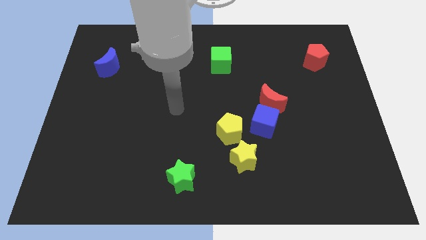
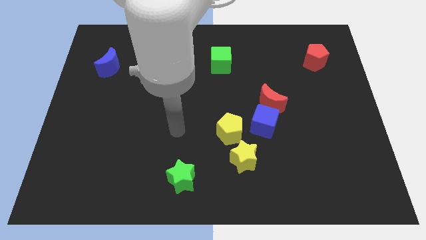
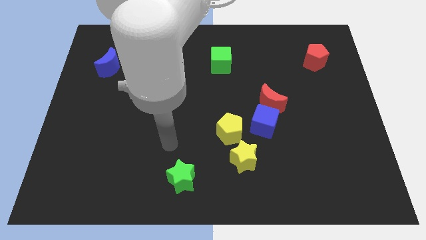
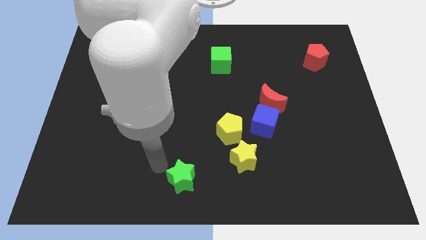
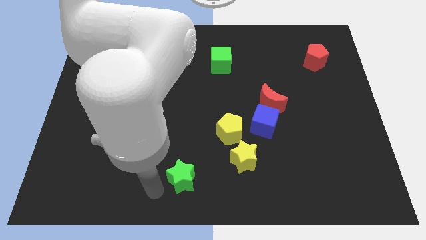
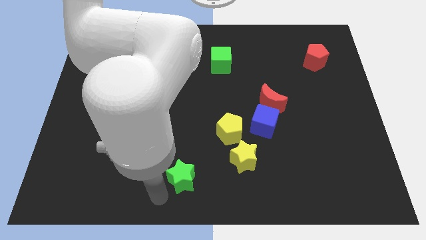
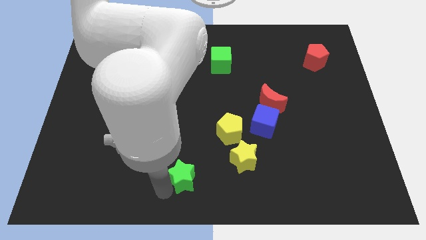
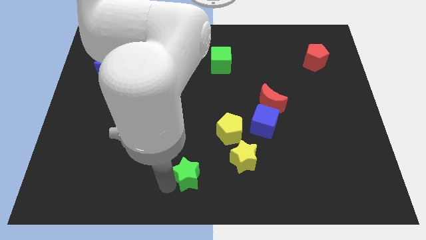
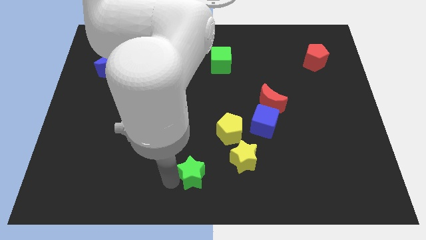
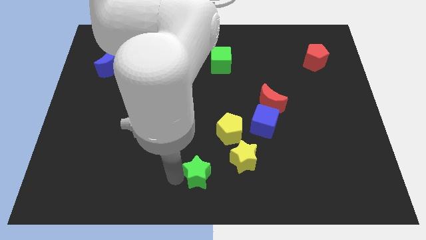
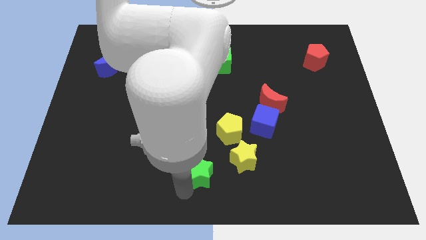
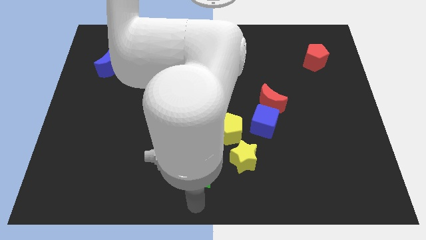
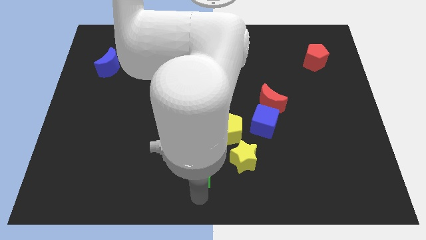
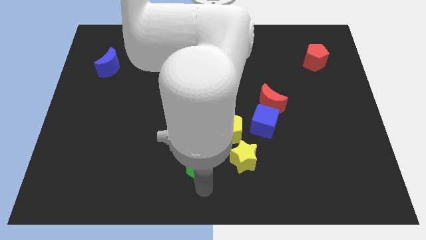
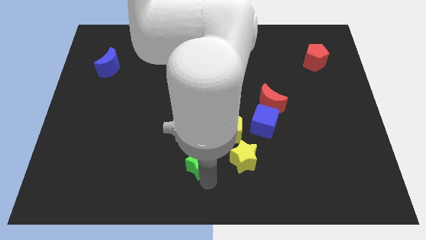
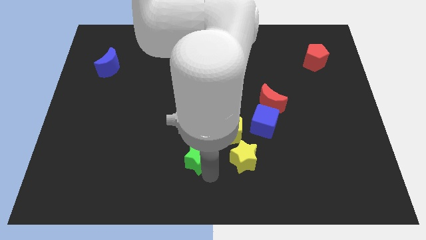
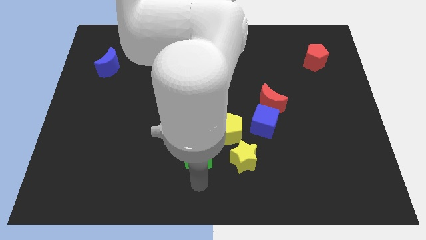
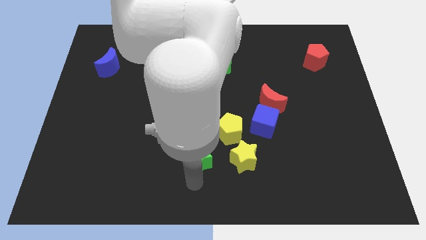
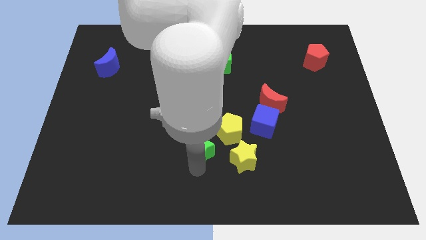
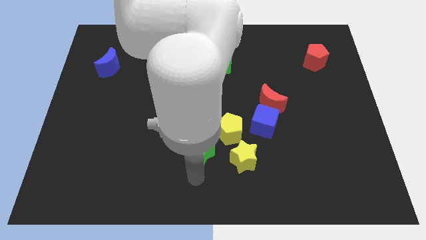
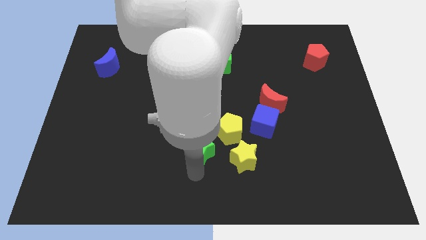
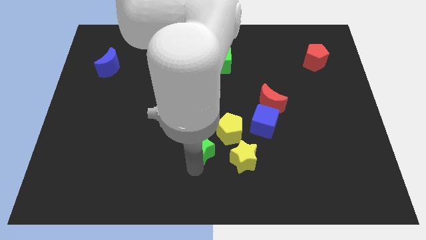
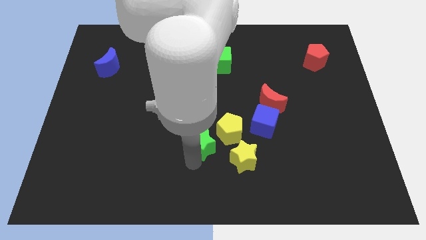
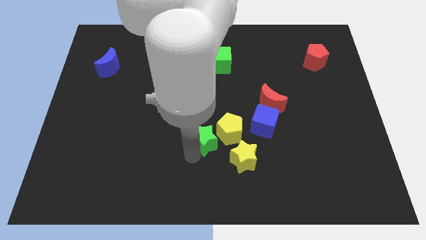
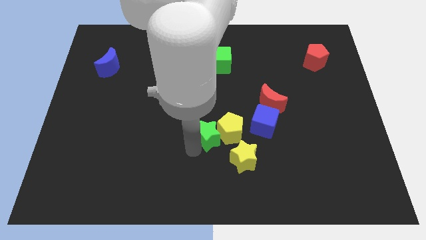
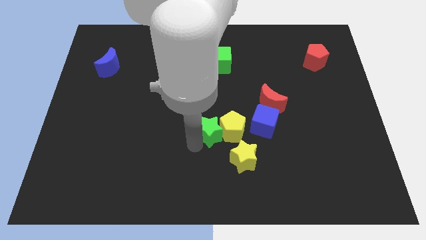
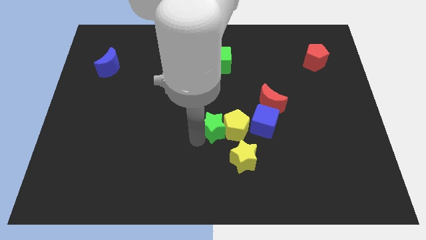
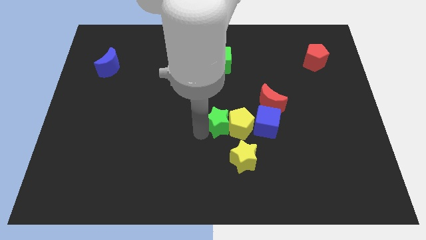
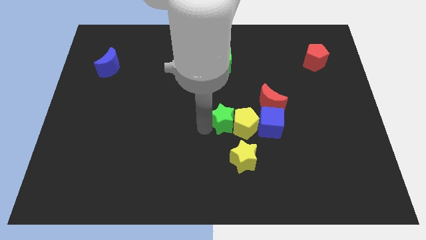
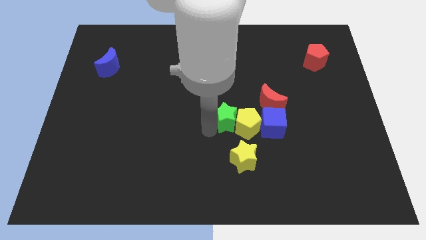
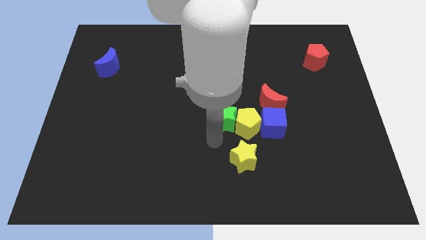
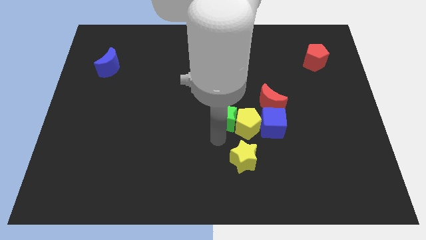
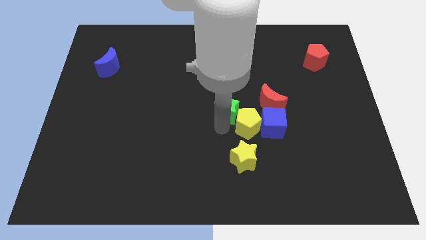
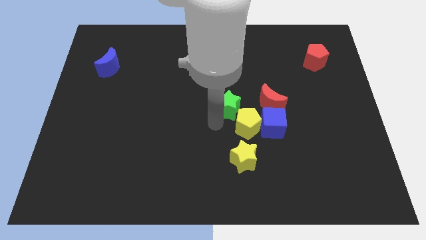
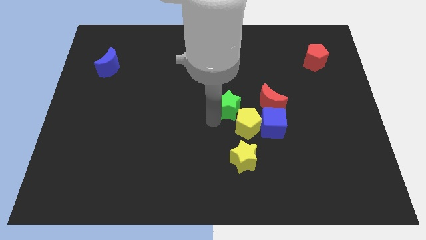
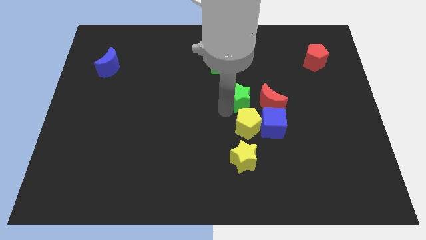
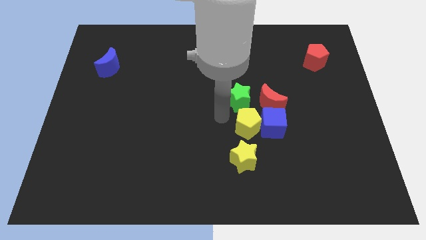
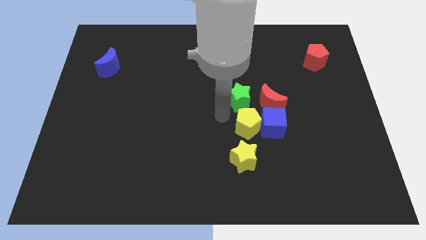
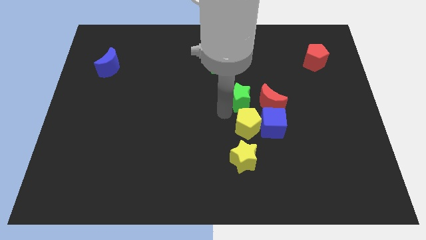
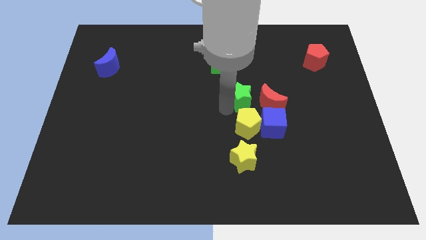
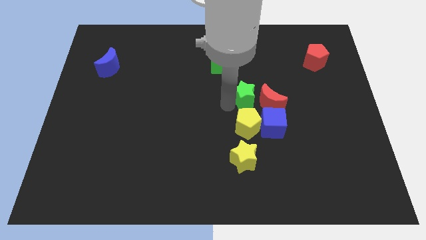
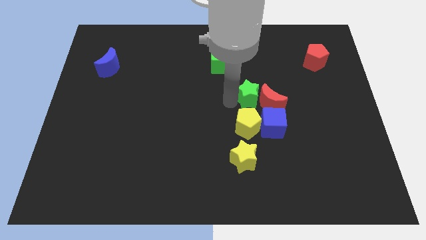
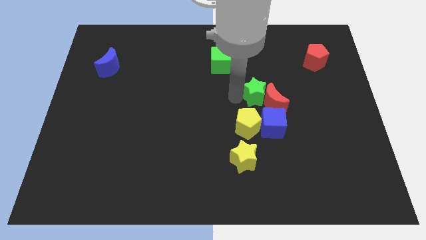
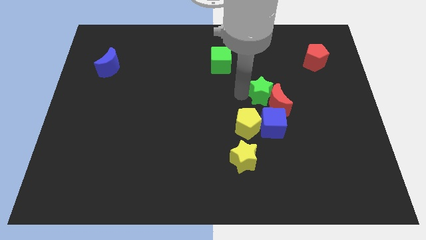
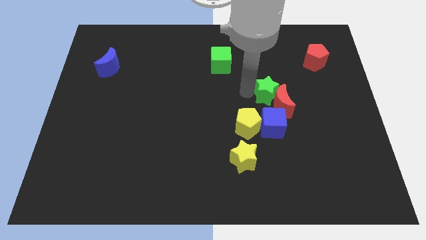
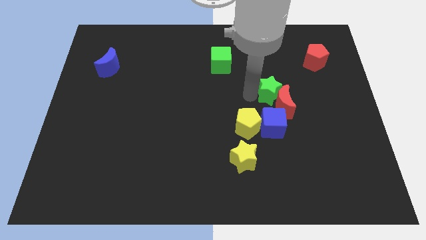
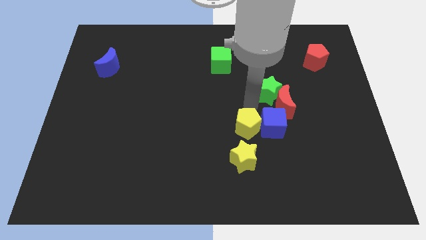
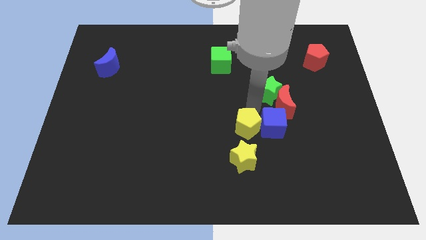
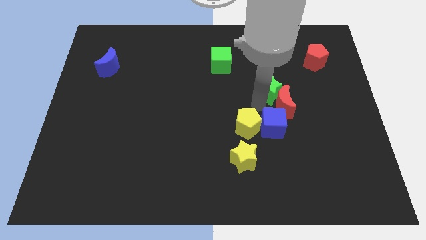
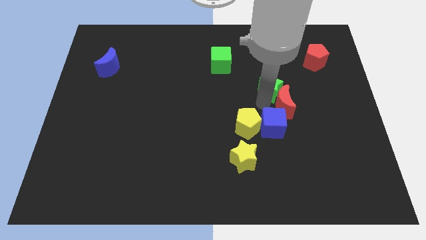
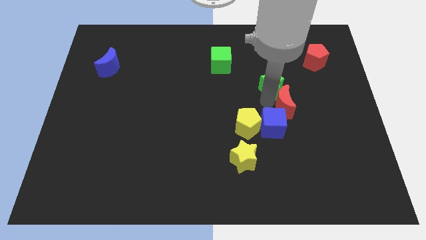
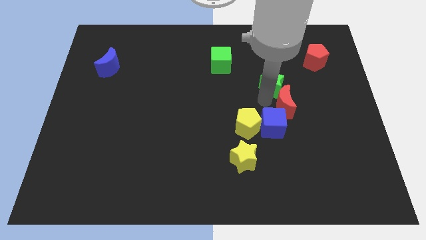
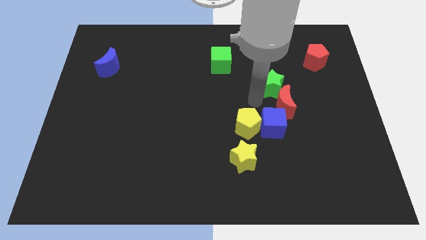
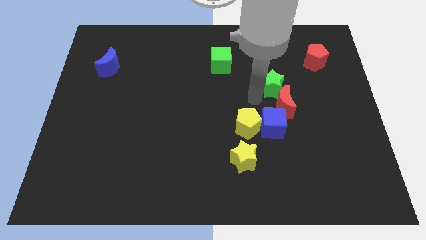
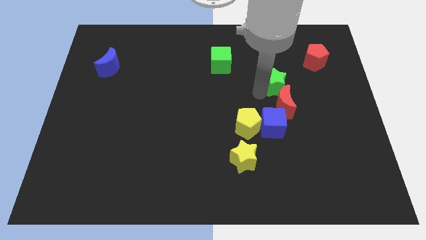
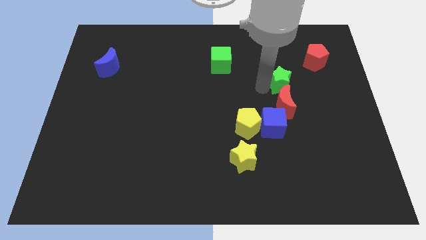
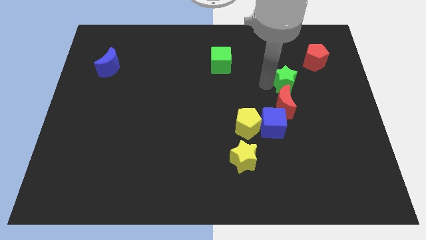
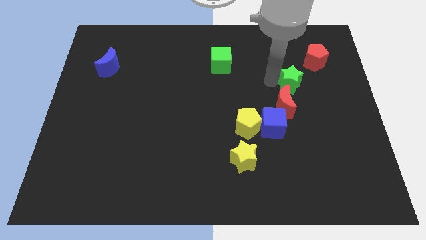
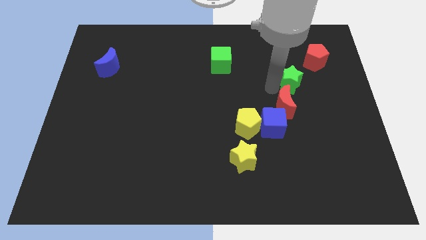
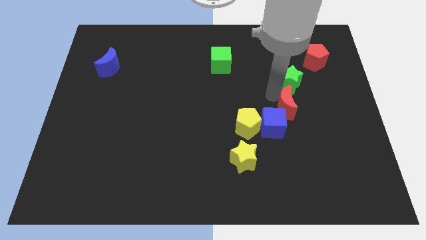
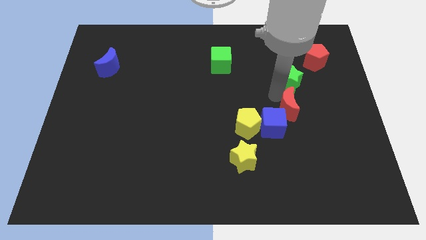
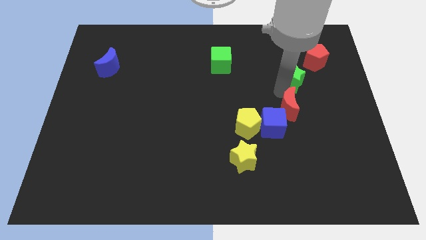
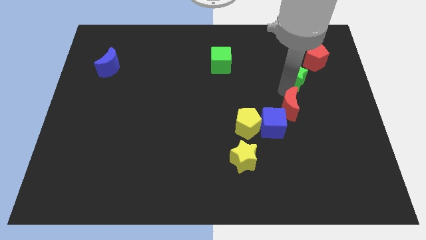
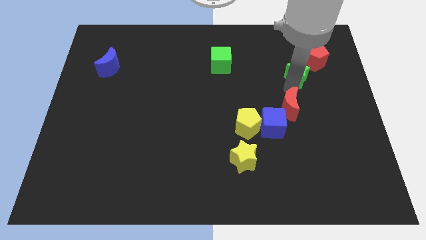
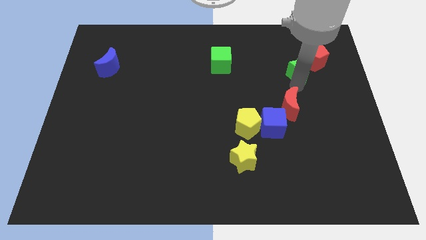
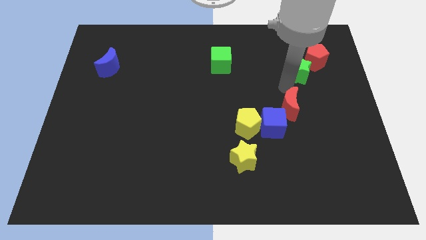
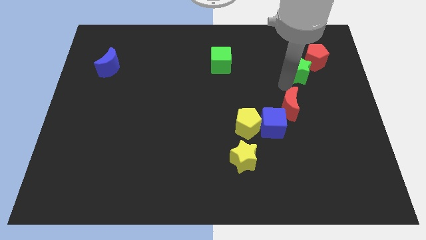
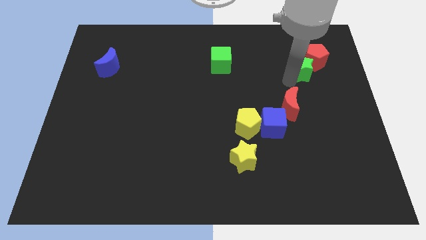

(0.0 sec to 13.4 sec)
slide the green star towards the red pentagon
